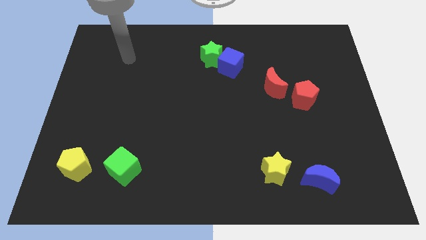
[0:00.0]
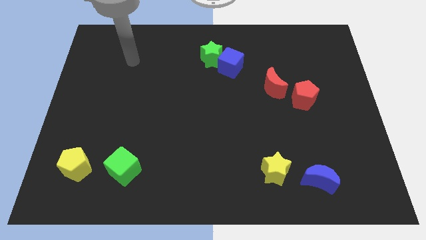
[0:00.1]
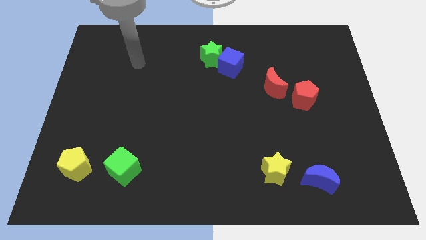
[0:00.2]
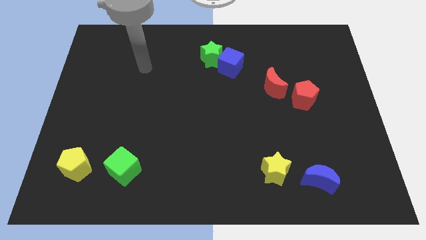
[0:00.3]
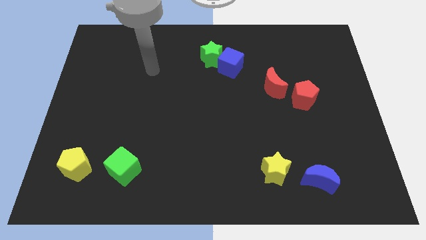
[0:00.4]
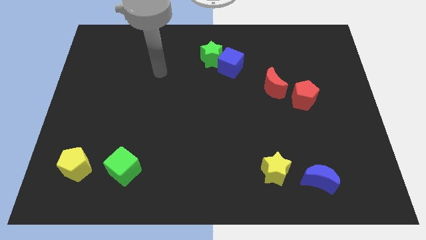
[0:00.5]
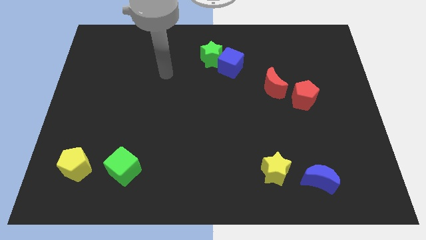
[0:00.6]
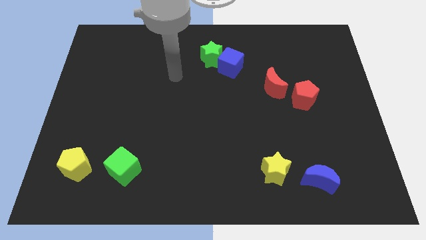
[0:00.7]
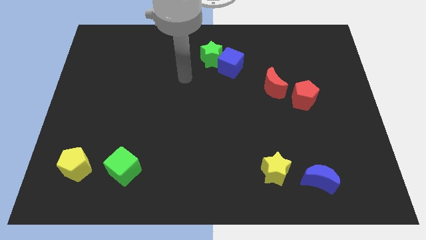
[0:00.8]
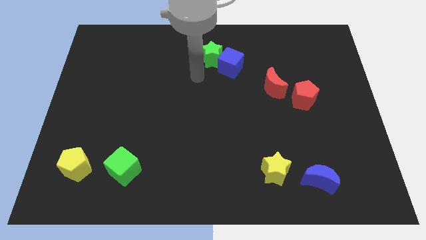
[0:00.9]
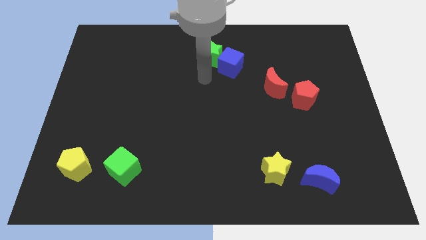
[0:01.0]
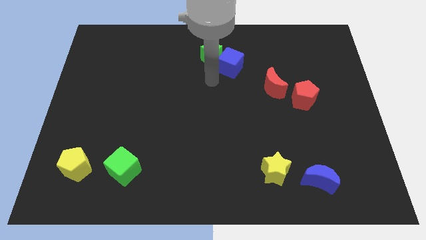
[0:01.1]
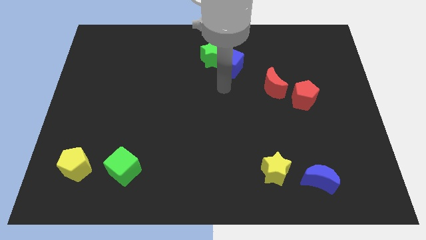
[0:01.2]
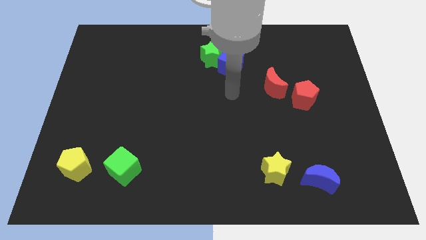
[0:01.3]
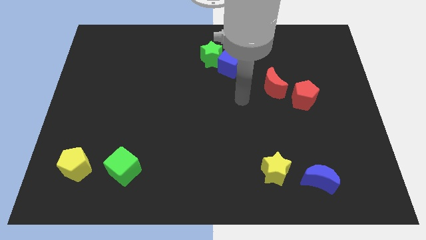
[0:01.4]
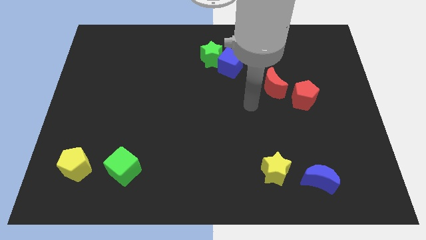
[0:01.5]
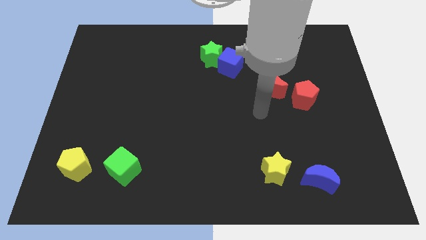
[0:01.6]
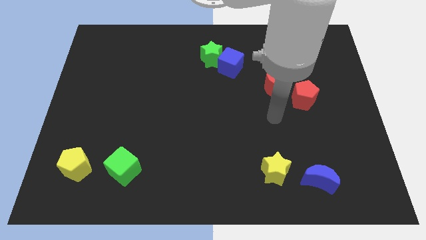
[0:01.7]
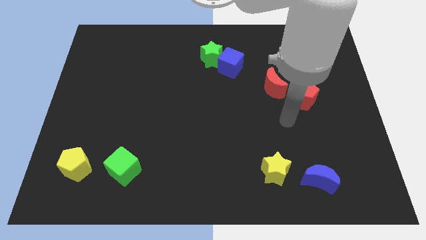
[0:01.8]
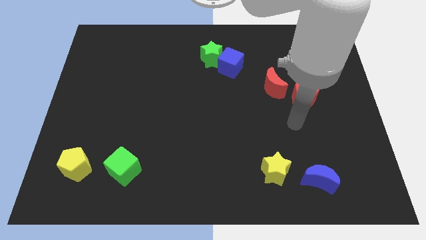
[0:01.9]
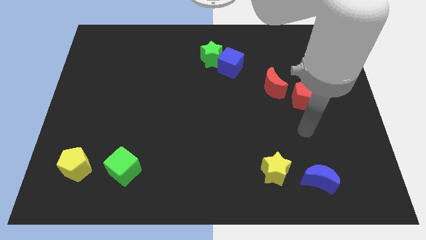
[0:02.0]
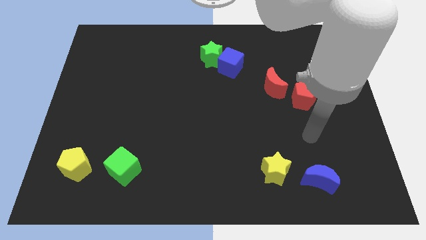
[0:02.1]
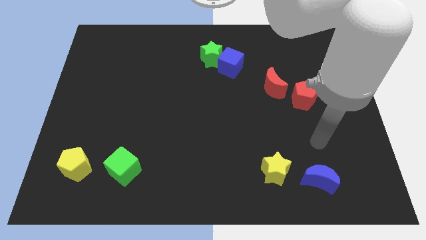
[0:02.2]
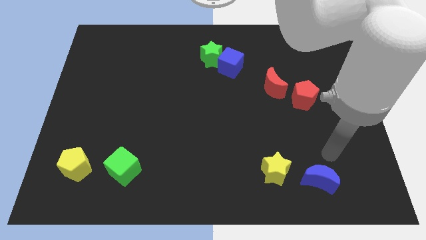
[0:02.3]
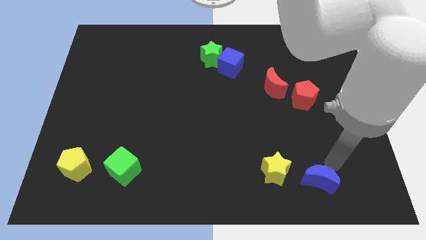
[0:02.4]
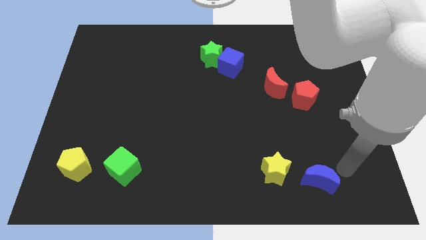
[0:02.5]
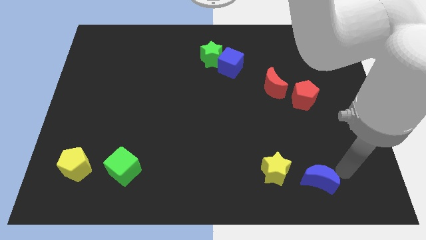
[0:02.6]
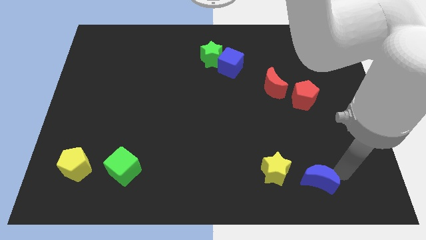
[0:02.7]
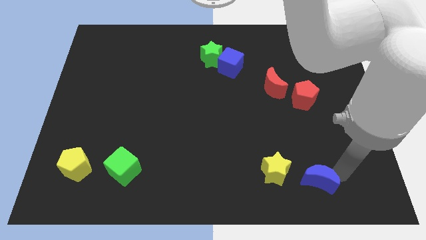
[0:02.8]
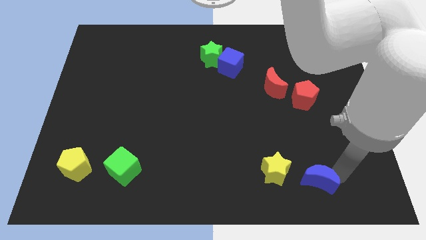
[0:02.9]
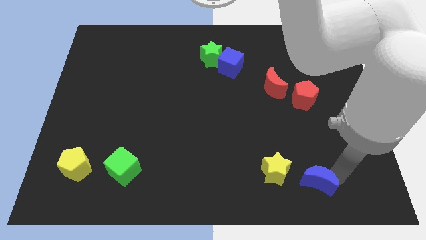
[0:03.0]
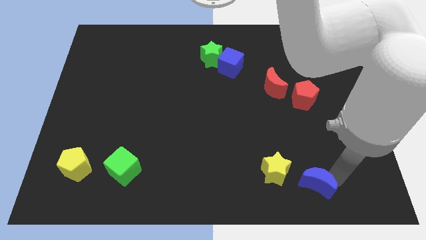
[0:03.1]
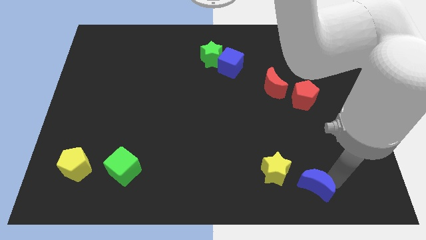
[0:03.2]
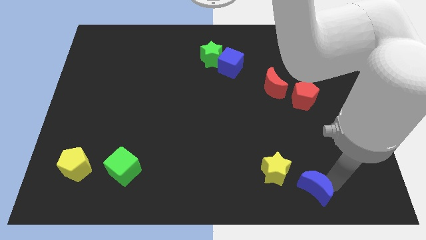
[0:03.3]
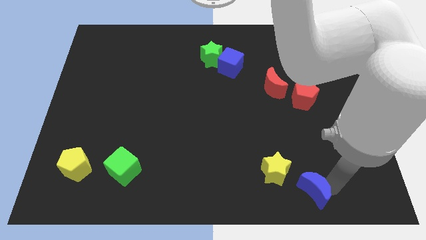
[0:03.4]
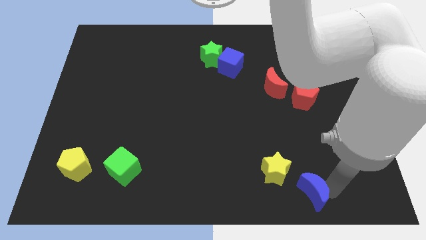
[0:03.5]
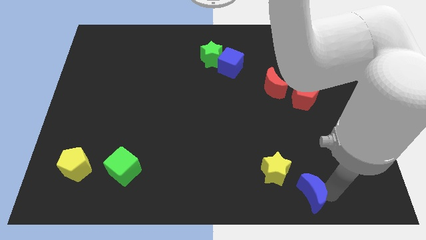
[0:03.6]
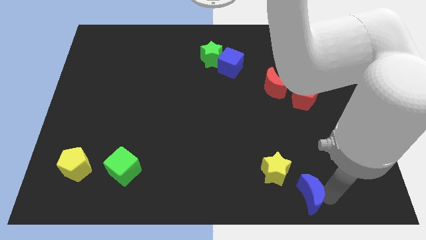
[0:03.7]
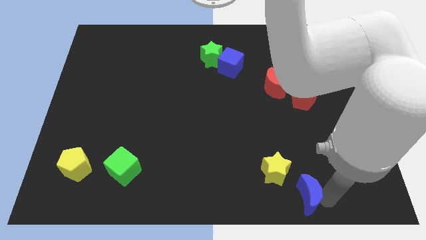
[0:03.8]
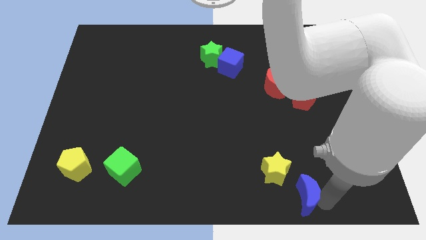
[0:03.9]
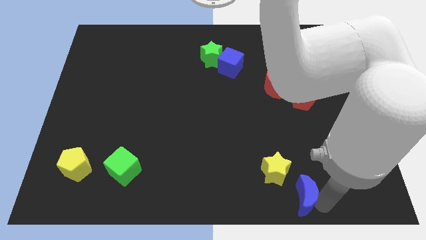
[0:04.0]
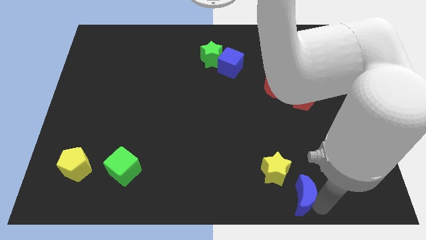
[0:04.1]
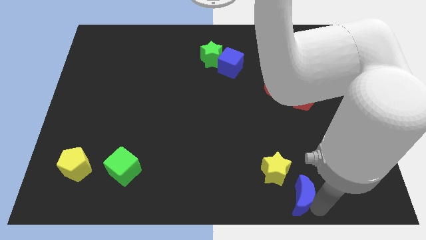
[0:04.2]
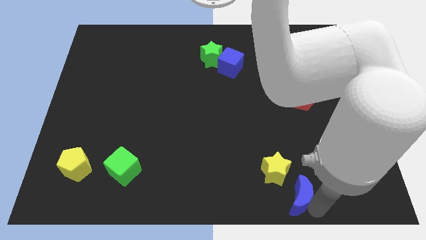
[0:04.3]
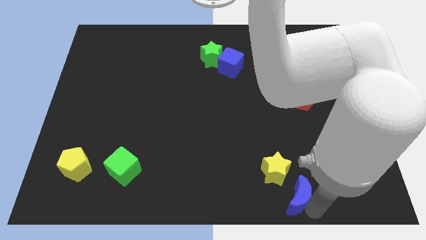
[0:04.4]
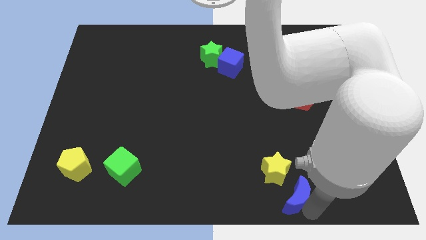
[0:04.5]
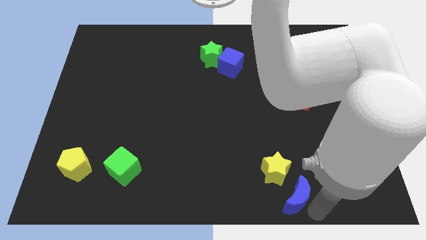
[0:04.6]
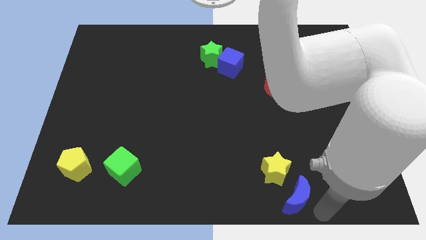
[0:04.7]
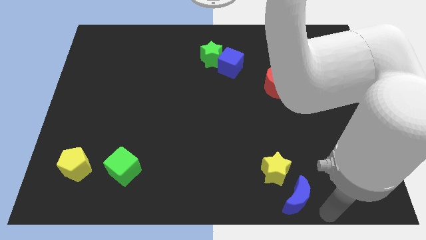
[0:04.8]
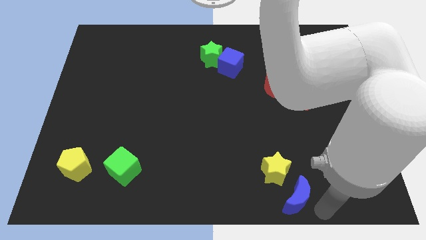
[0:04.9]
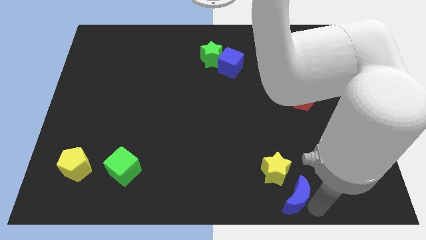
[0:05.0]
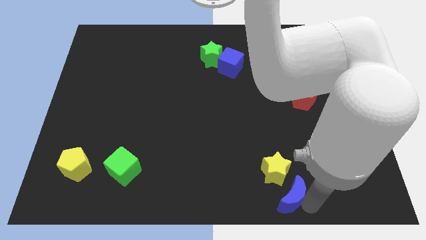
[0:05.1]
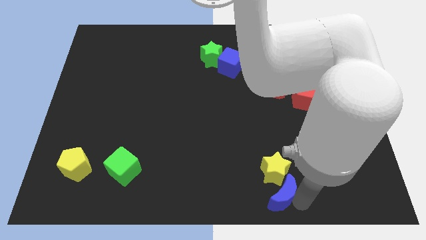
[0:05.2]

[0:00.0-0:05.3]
slide the blue moon to the left a little bit

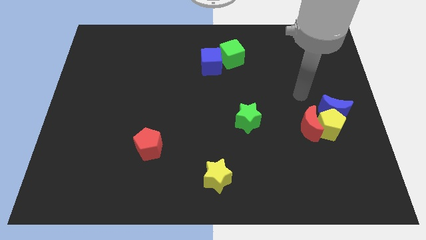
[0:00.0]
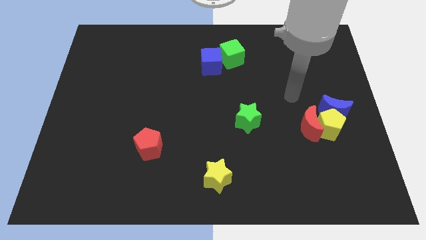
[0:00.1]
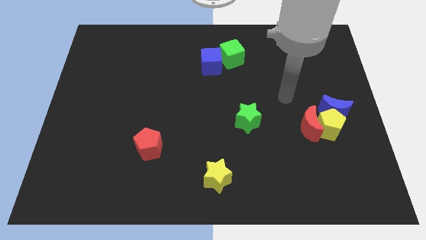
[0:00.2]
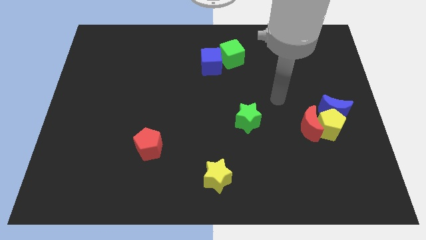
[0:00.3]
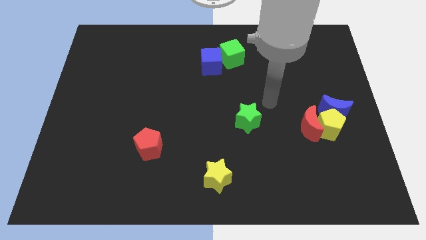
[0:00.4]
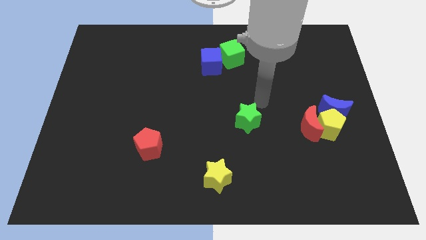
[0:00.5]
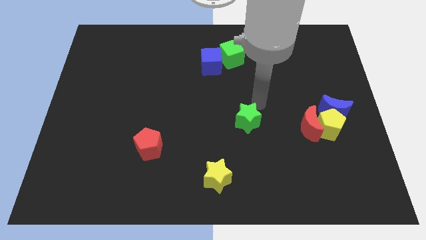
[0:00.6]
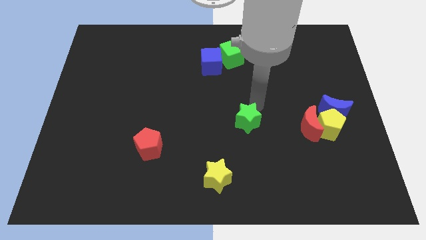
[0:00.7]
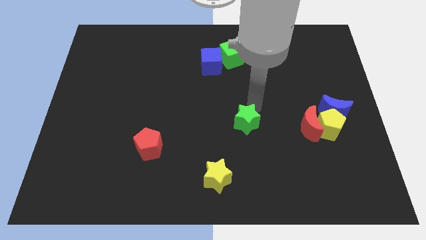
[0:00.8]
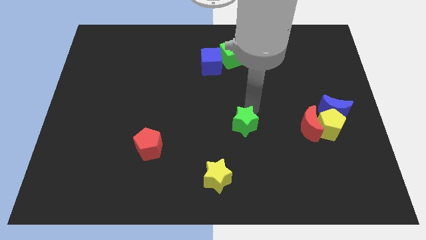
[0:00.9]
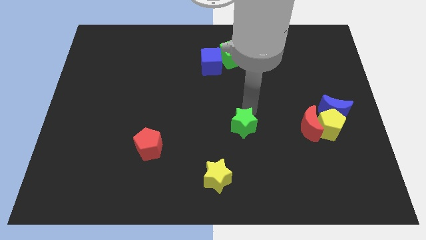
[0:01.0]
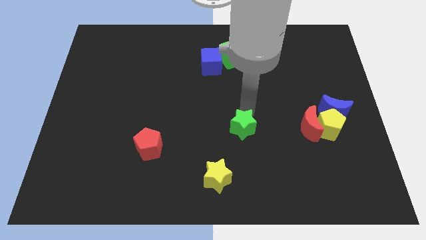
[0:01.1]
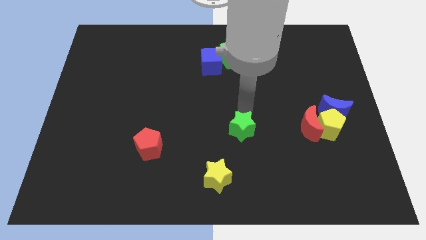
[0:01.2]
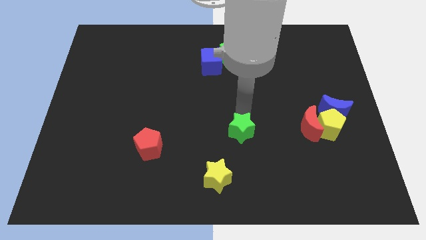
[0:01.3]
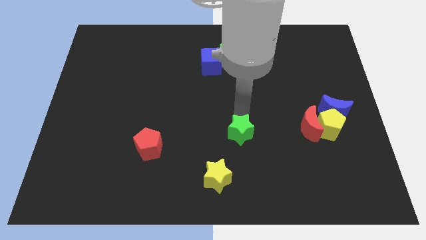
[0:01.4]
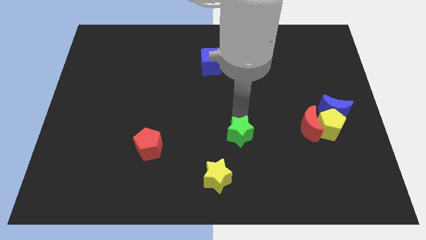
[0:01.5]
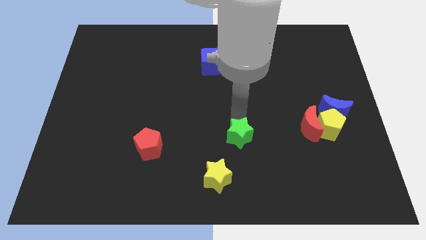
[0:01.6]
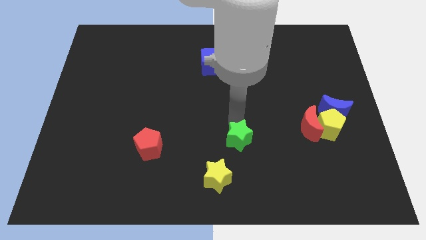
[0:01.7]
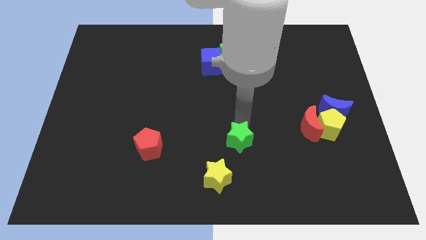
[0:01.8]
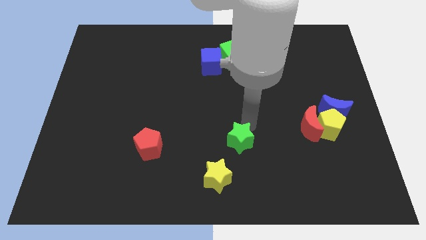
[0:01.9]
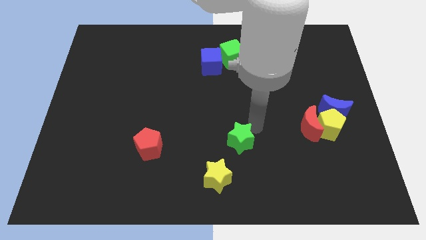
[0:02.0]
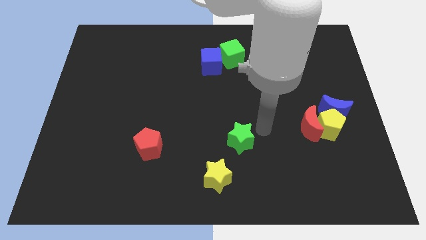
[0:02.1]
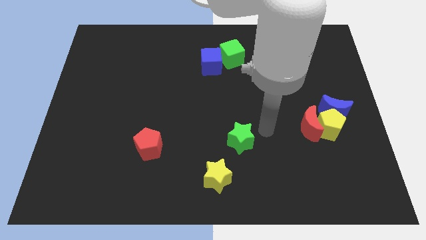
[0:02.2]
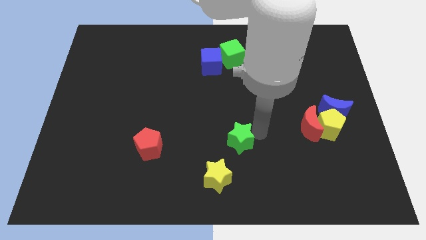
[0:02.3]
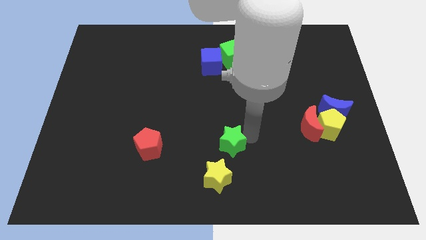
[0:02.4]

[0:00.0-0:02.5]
slightly move the green star down and left

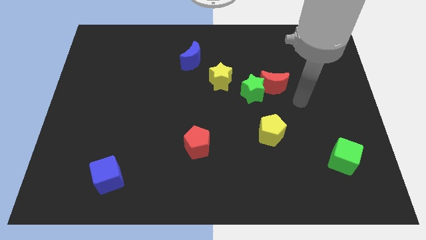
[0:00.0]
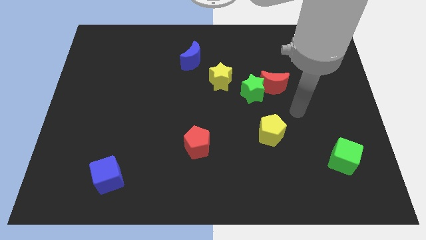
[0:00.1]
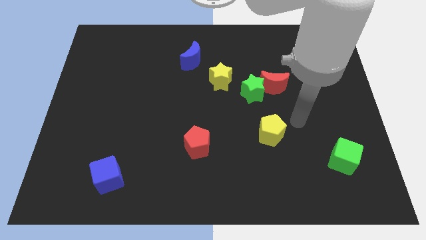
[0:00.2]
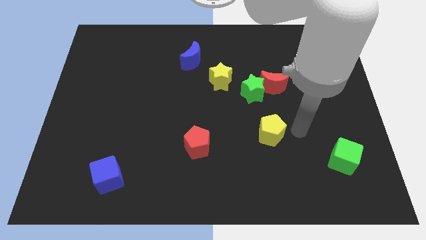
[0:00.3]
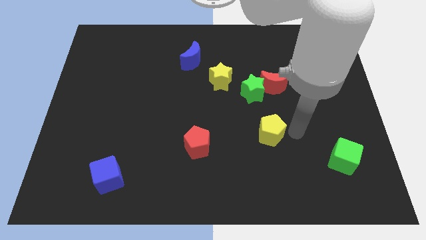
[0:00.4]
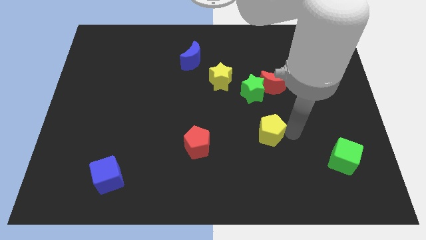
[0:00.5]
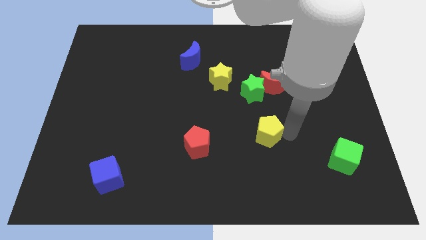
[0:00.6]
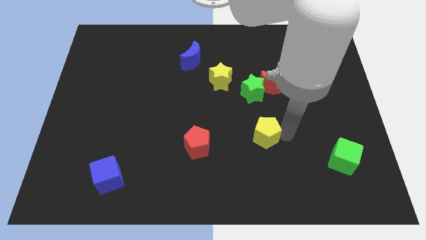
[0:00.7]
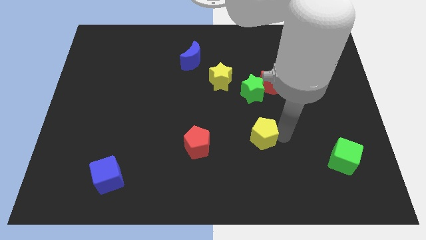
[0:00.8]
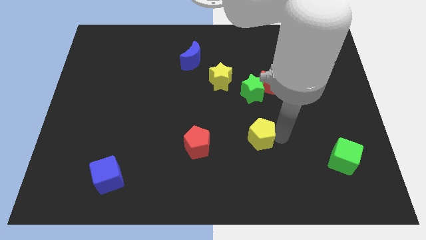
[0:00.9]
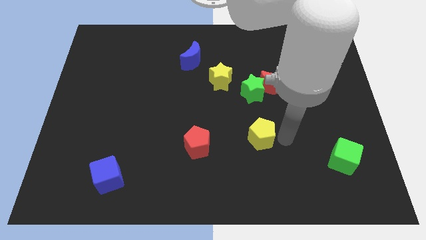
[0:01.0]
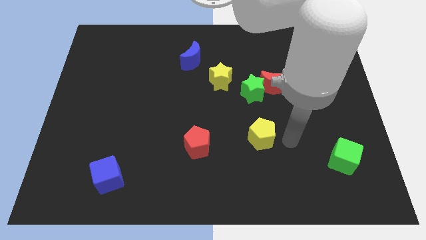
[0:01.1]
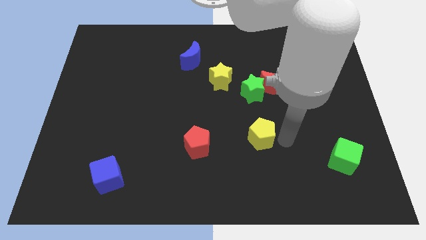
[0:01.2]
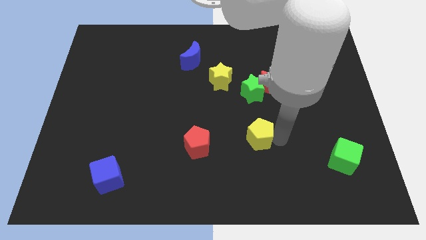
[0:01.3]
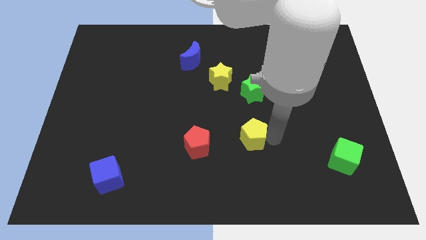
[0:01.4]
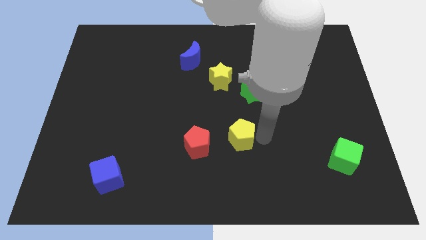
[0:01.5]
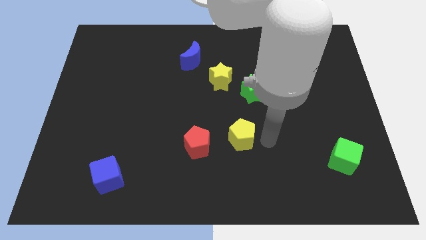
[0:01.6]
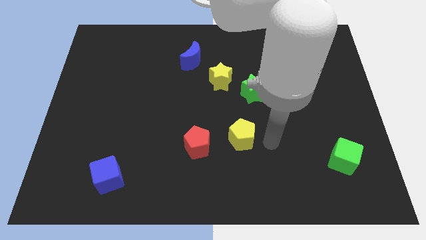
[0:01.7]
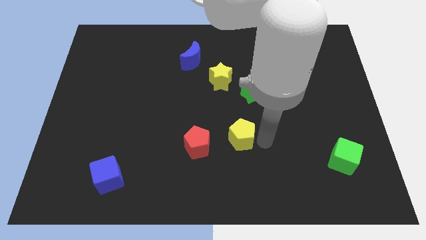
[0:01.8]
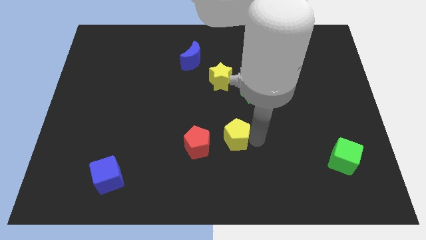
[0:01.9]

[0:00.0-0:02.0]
slightly push the yellow pentagon left
